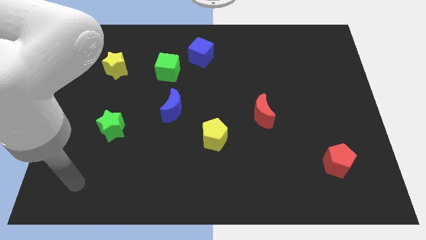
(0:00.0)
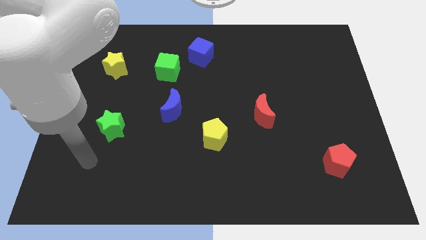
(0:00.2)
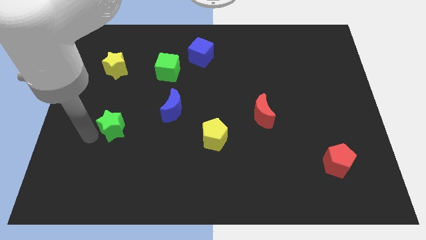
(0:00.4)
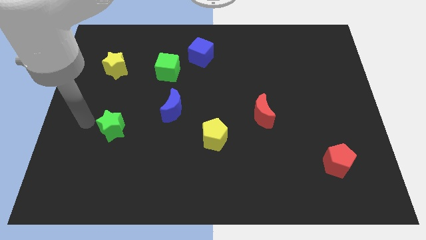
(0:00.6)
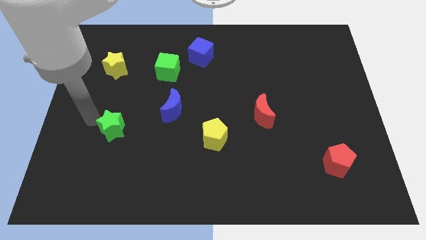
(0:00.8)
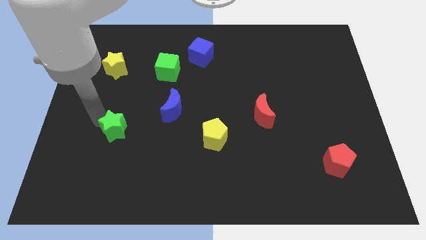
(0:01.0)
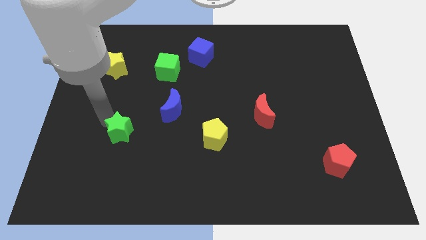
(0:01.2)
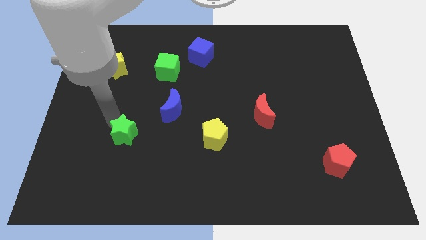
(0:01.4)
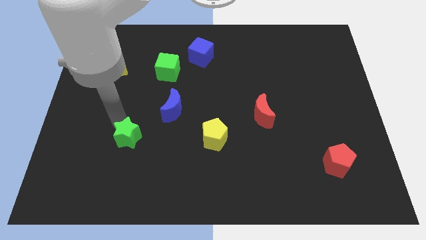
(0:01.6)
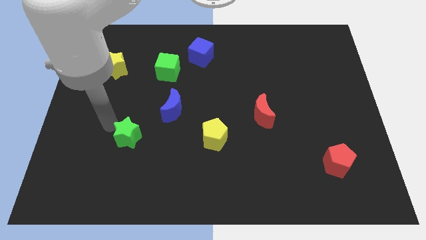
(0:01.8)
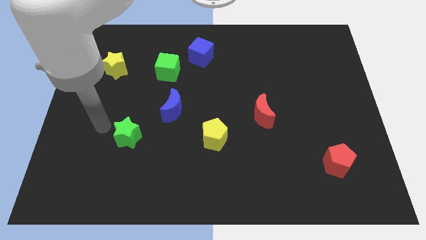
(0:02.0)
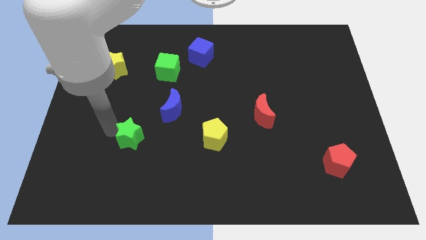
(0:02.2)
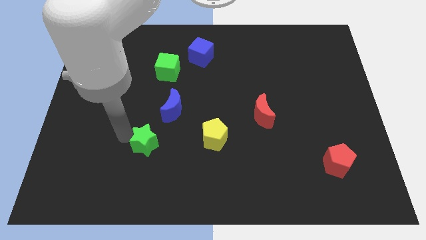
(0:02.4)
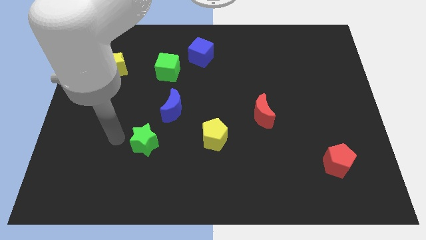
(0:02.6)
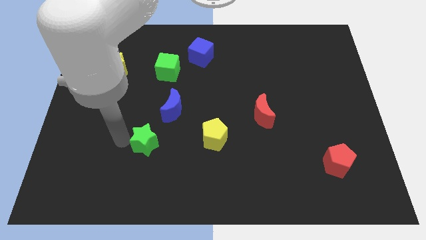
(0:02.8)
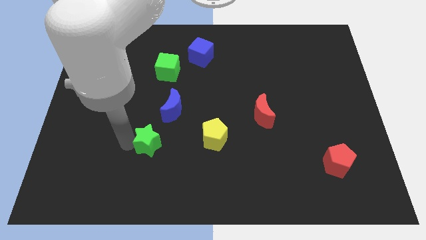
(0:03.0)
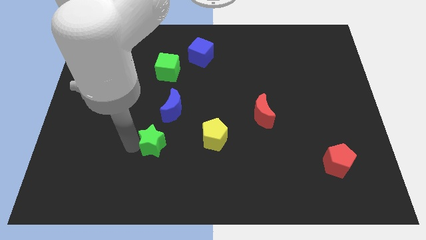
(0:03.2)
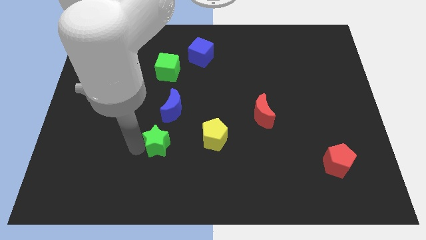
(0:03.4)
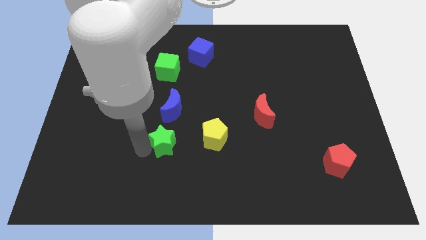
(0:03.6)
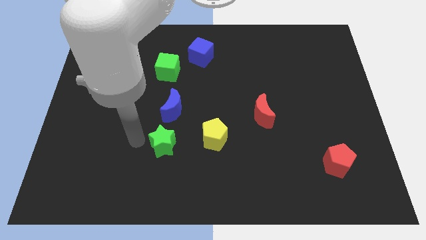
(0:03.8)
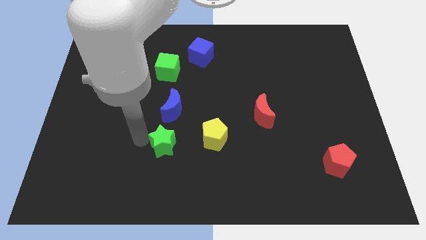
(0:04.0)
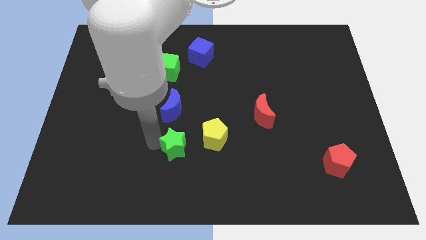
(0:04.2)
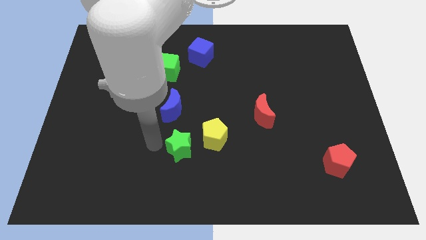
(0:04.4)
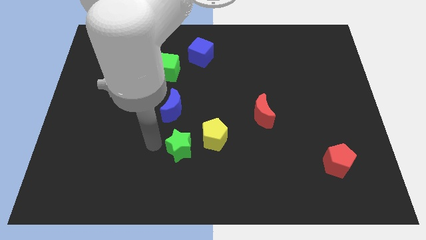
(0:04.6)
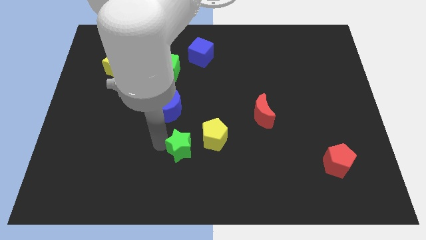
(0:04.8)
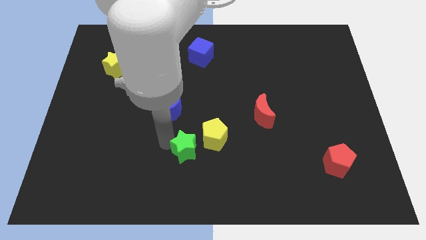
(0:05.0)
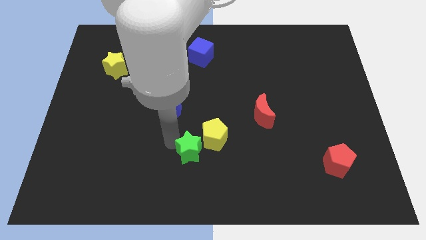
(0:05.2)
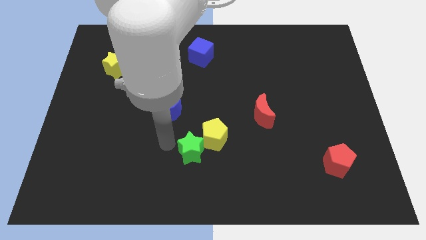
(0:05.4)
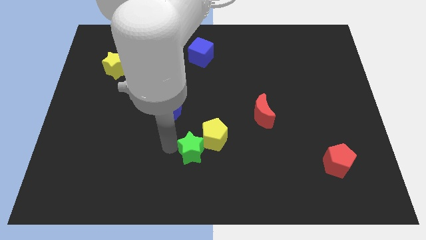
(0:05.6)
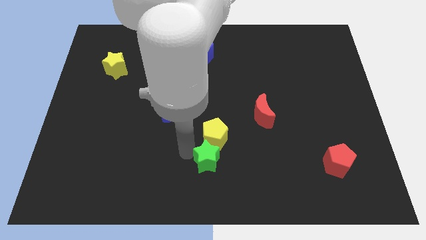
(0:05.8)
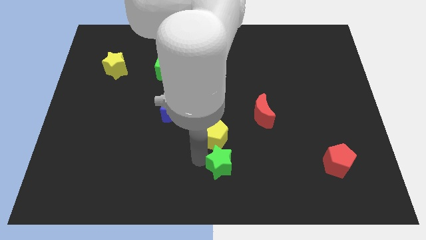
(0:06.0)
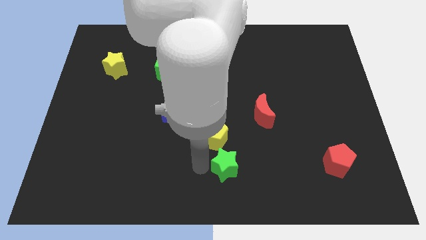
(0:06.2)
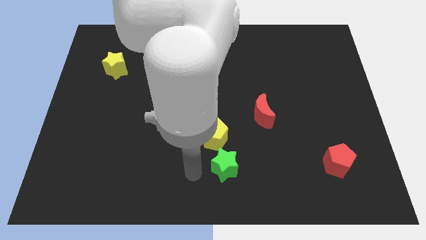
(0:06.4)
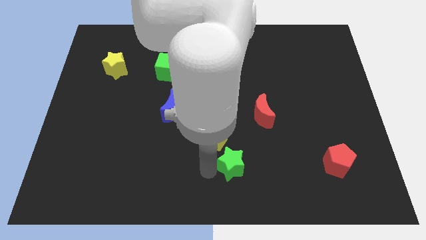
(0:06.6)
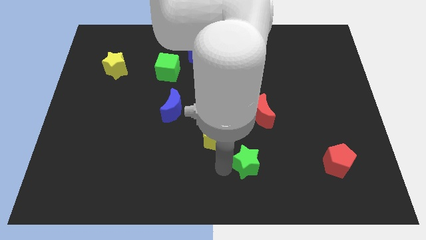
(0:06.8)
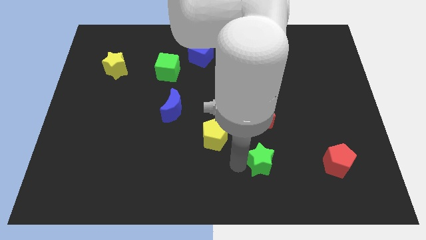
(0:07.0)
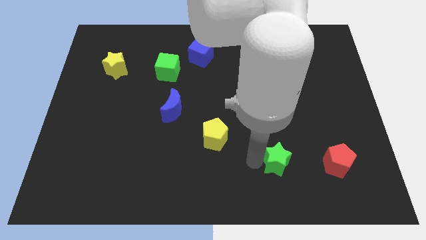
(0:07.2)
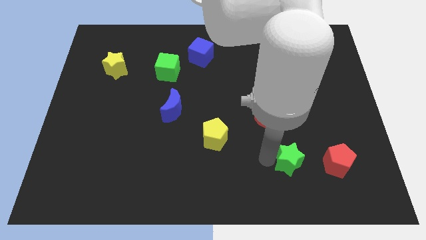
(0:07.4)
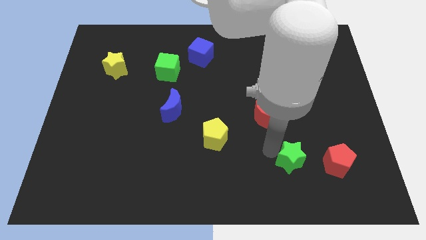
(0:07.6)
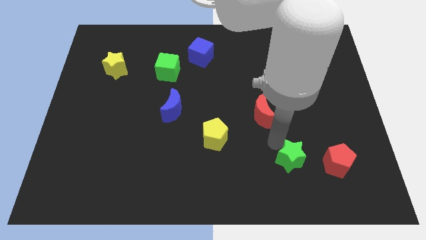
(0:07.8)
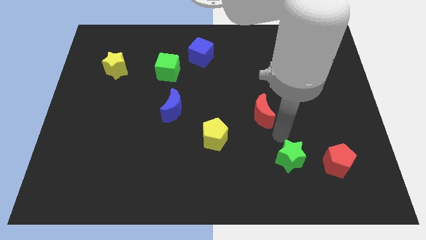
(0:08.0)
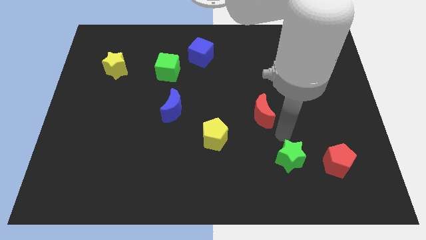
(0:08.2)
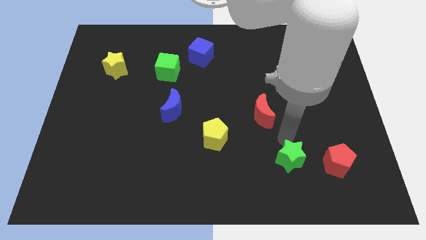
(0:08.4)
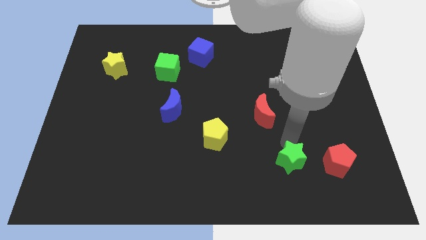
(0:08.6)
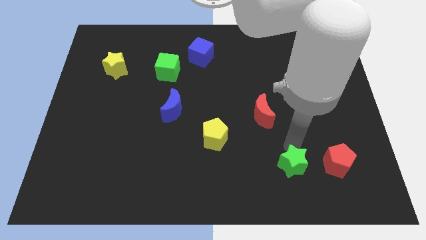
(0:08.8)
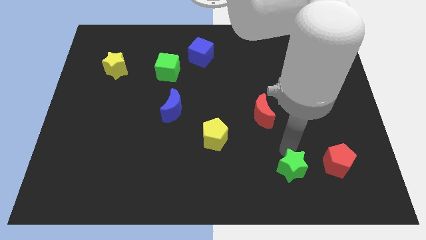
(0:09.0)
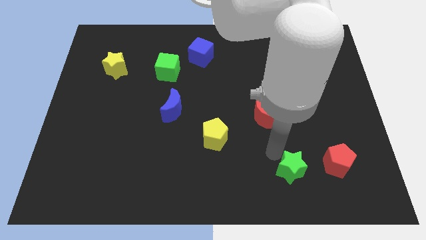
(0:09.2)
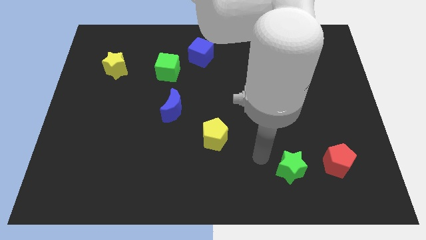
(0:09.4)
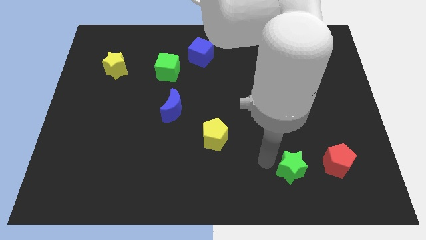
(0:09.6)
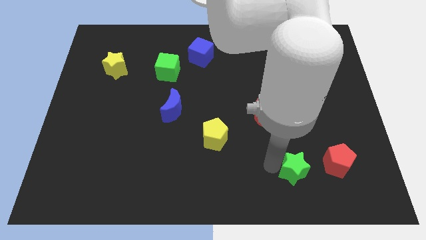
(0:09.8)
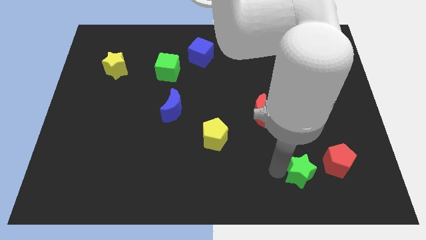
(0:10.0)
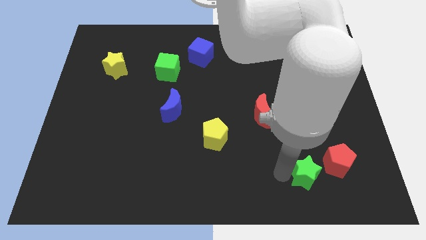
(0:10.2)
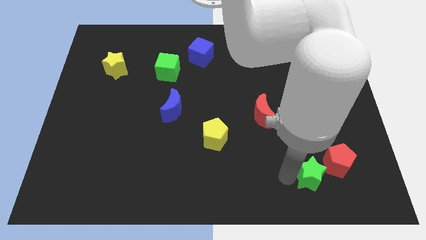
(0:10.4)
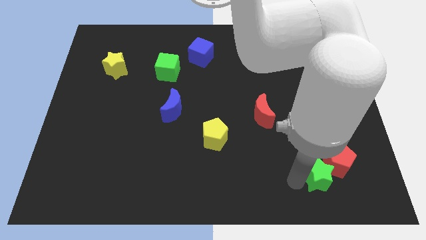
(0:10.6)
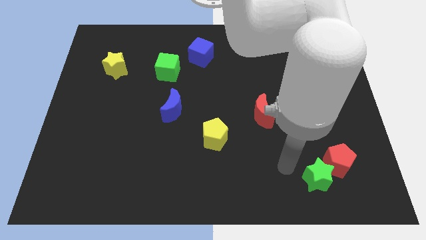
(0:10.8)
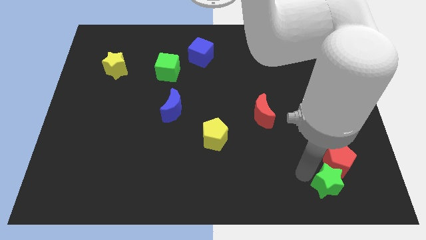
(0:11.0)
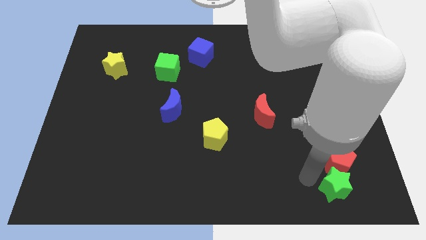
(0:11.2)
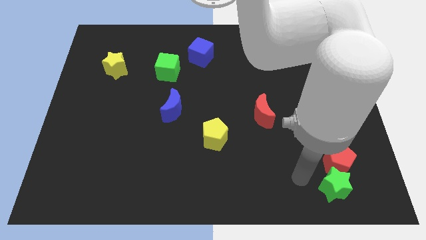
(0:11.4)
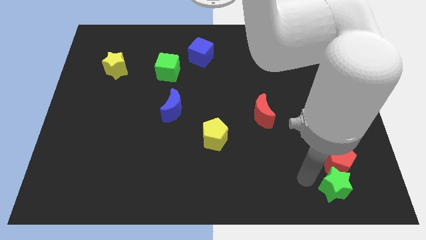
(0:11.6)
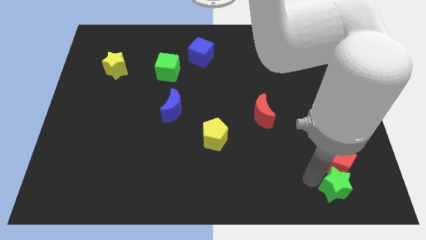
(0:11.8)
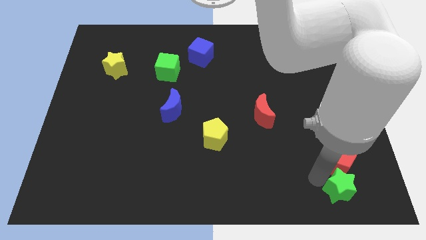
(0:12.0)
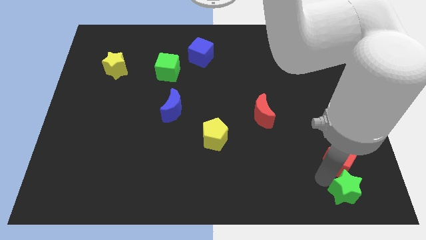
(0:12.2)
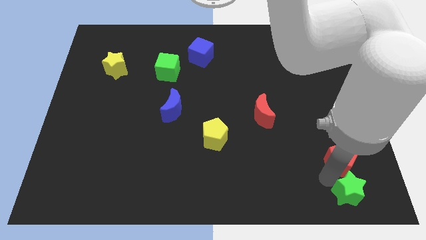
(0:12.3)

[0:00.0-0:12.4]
push the green star to the lower right corner
